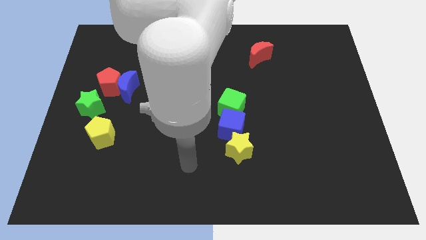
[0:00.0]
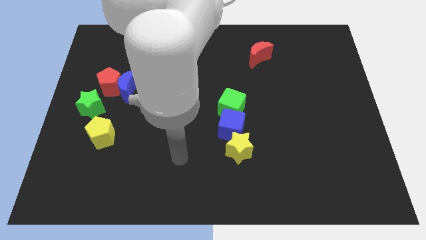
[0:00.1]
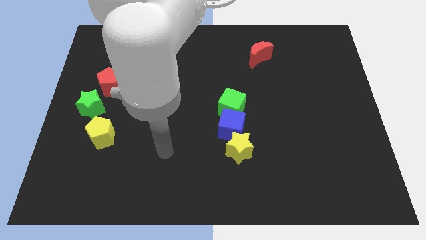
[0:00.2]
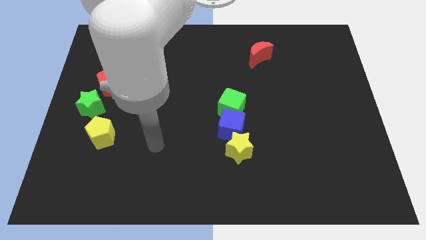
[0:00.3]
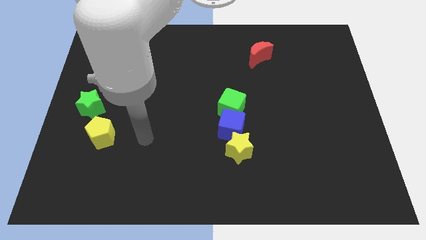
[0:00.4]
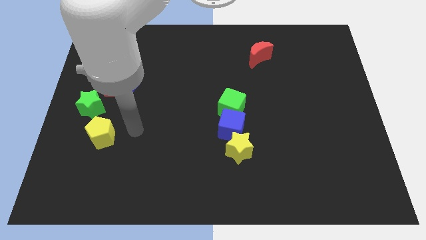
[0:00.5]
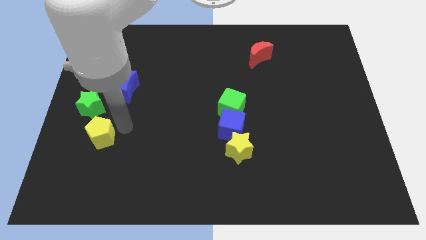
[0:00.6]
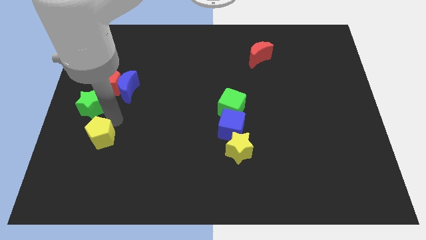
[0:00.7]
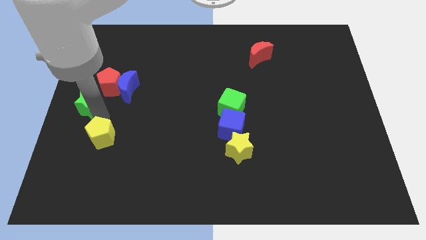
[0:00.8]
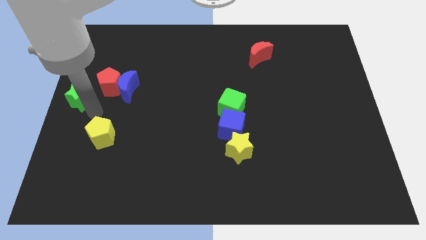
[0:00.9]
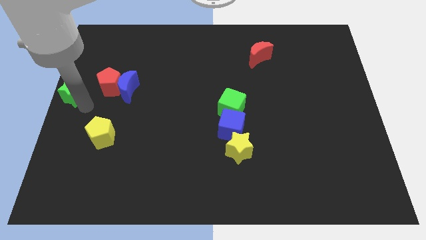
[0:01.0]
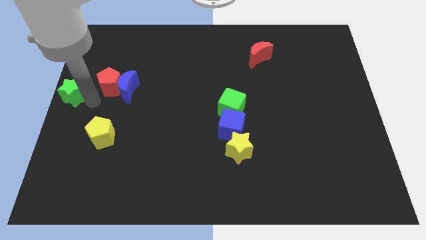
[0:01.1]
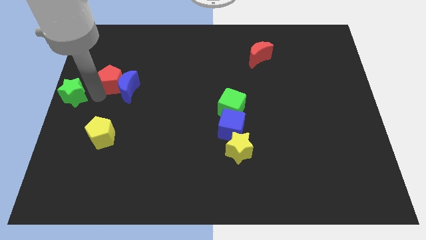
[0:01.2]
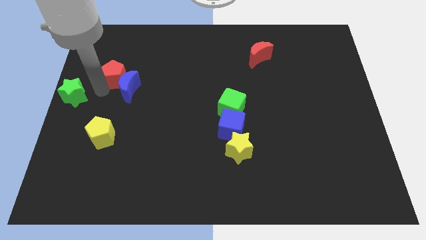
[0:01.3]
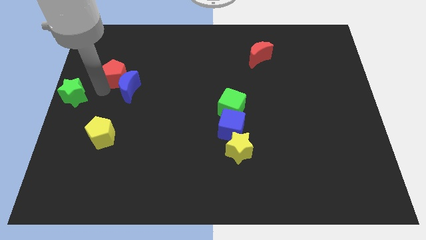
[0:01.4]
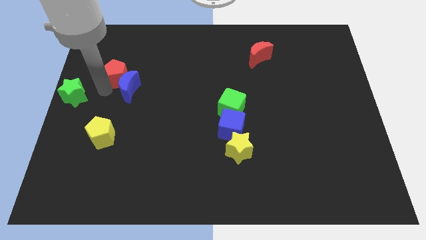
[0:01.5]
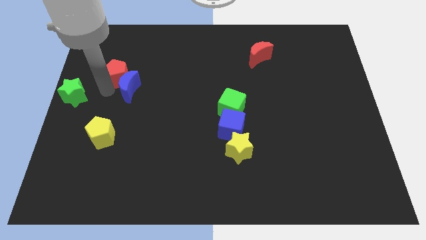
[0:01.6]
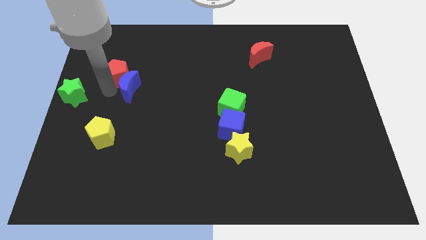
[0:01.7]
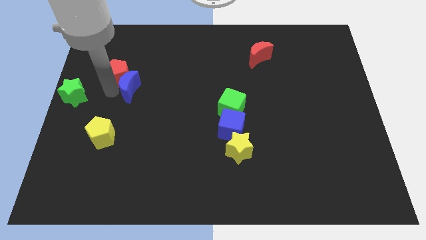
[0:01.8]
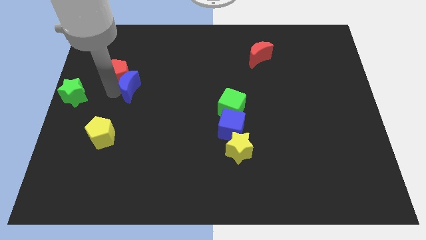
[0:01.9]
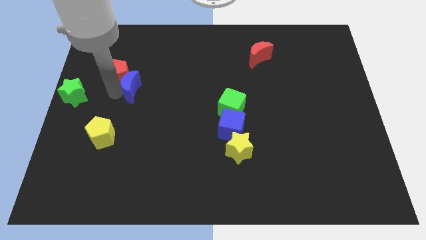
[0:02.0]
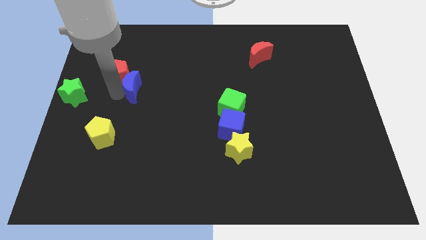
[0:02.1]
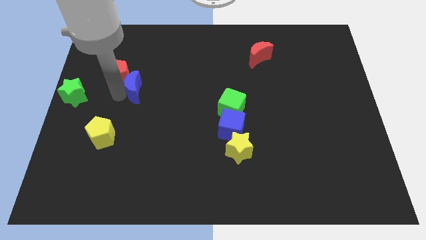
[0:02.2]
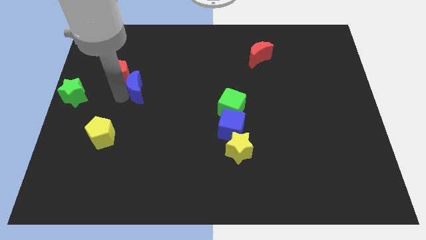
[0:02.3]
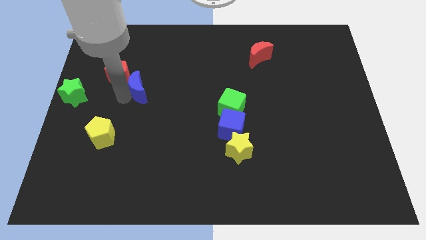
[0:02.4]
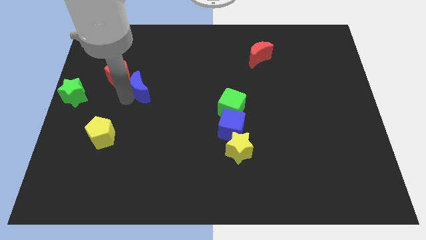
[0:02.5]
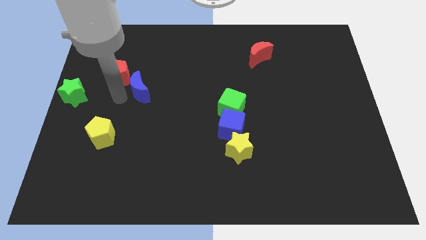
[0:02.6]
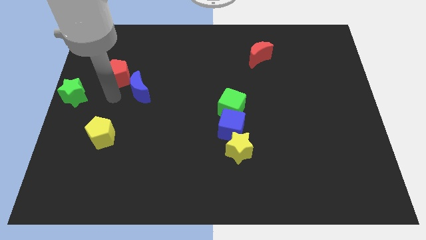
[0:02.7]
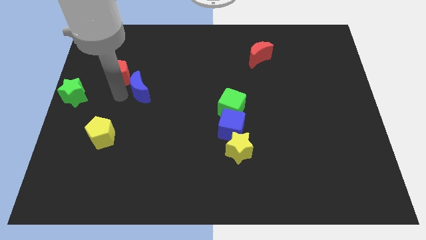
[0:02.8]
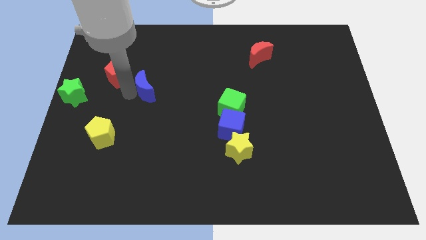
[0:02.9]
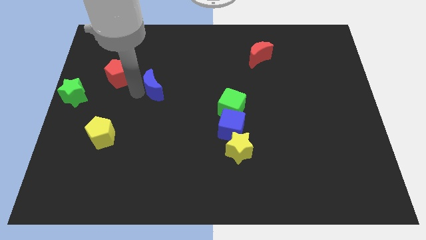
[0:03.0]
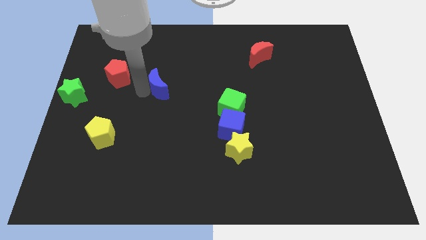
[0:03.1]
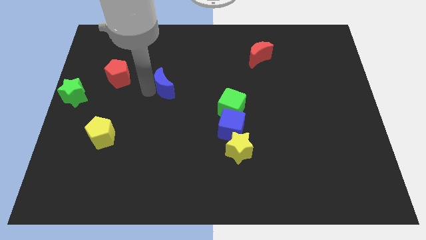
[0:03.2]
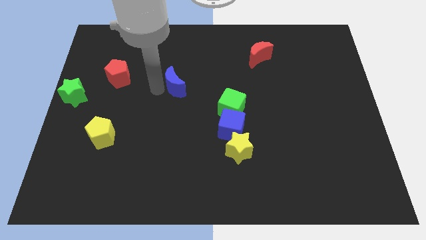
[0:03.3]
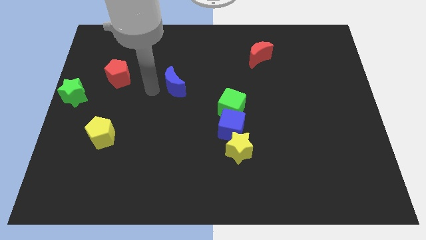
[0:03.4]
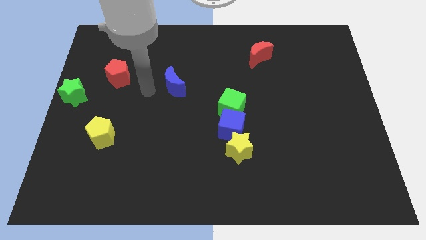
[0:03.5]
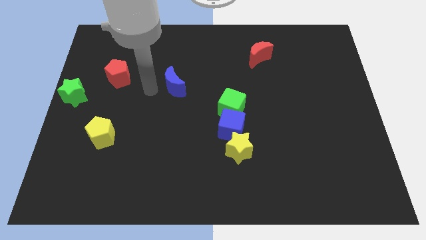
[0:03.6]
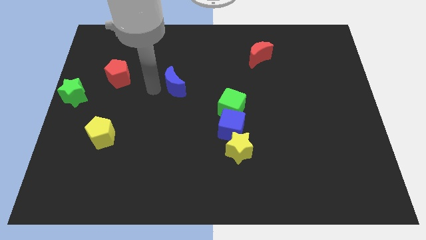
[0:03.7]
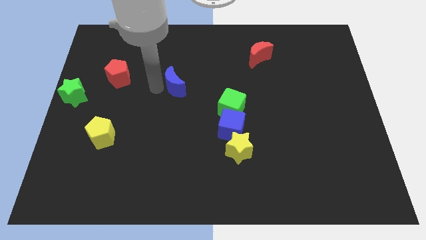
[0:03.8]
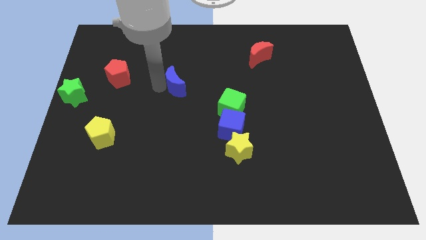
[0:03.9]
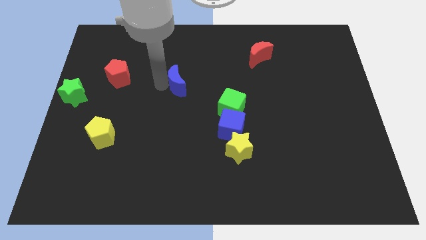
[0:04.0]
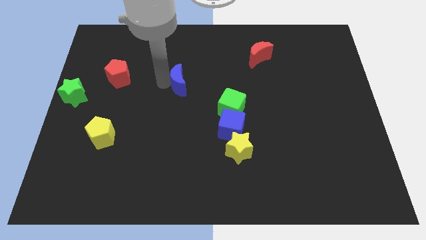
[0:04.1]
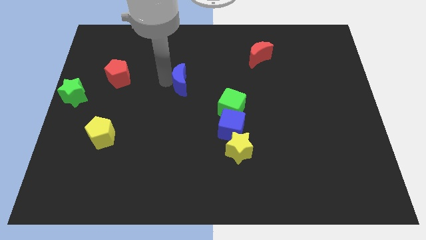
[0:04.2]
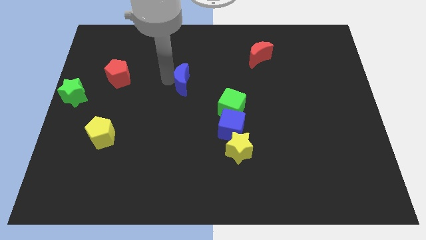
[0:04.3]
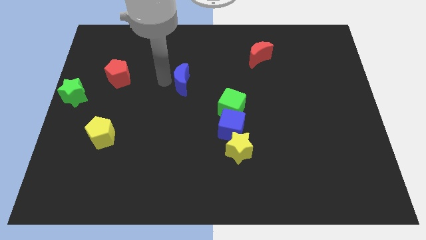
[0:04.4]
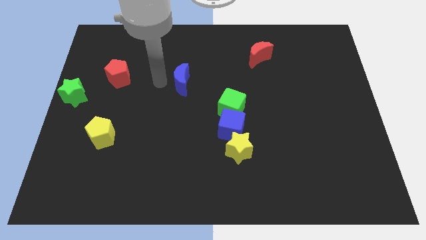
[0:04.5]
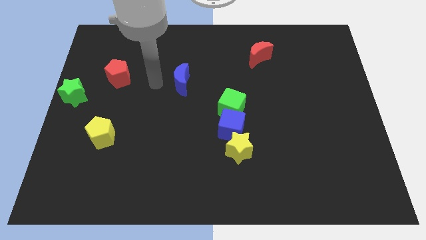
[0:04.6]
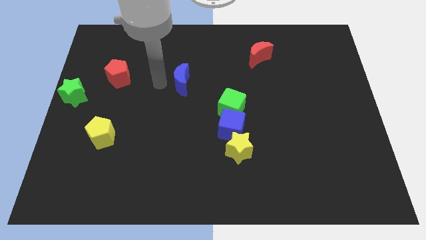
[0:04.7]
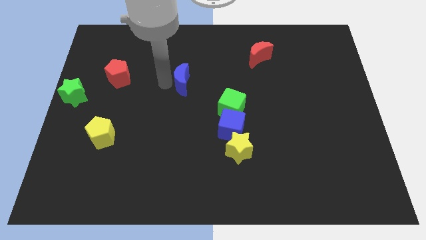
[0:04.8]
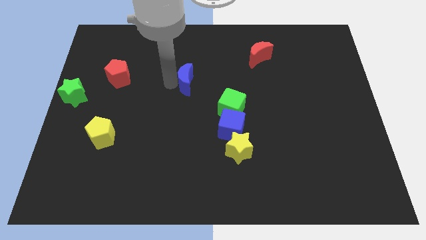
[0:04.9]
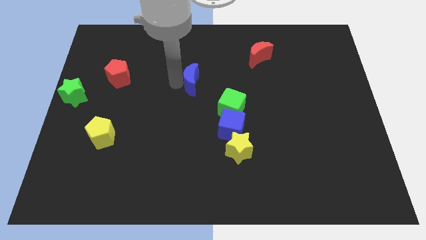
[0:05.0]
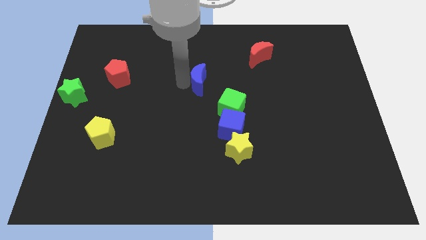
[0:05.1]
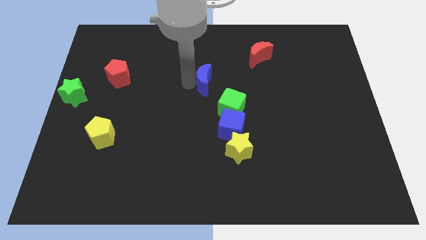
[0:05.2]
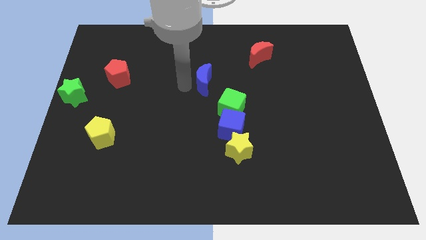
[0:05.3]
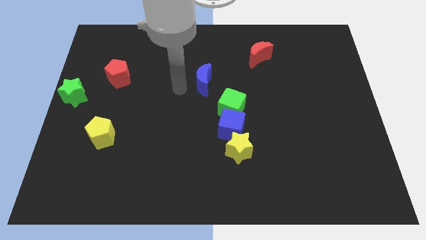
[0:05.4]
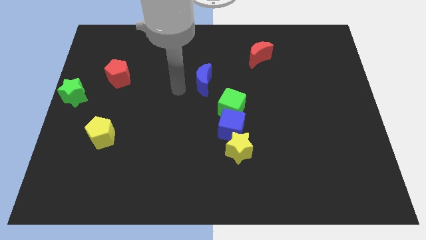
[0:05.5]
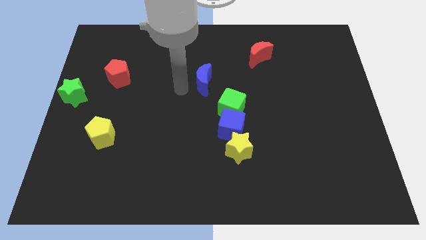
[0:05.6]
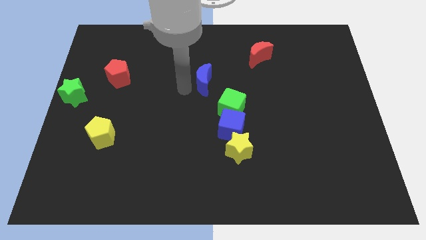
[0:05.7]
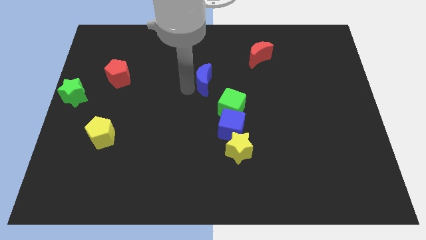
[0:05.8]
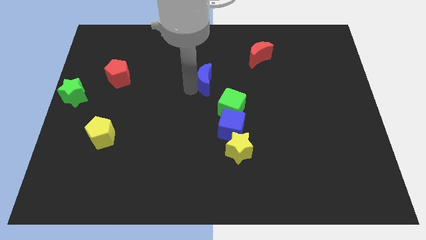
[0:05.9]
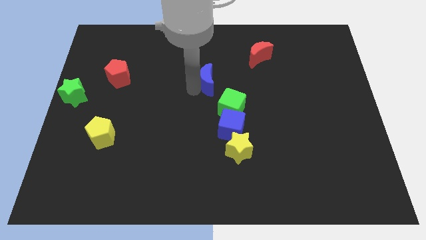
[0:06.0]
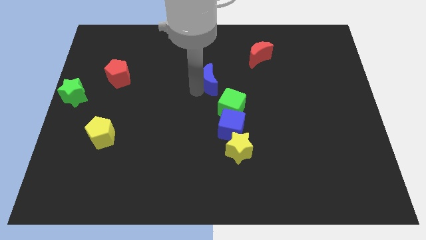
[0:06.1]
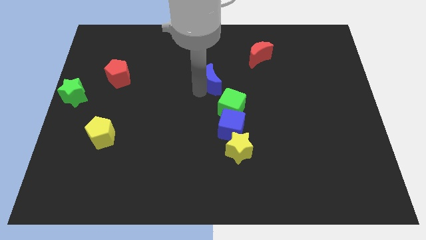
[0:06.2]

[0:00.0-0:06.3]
move the blue moon to the top of the green cube
